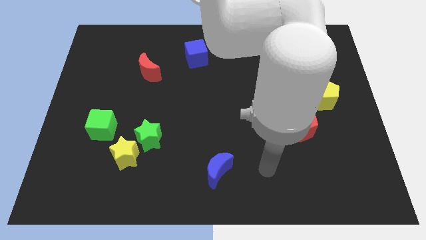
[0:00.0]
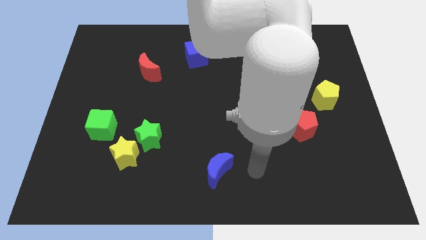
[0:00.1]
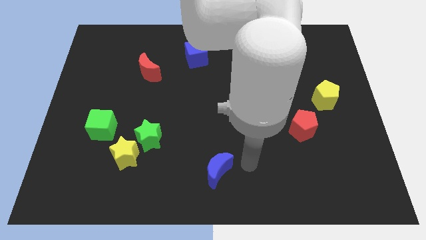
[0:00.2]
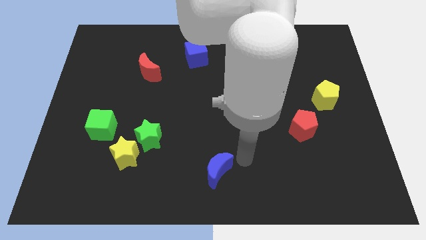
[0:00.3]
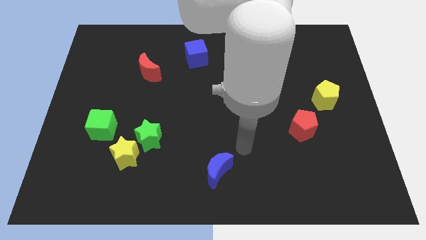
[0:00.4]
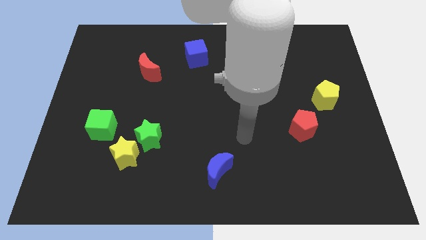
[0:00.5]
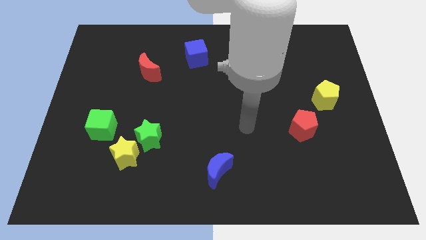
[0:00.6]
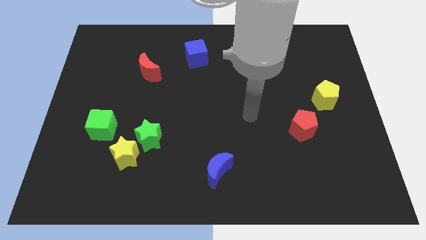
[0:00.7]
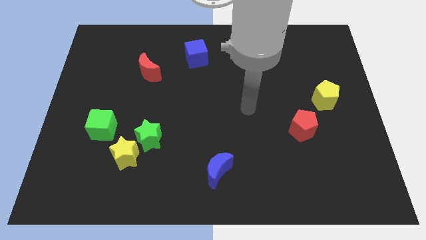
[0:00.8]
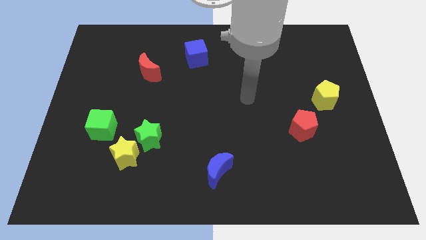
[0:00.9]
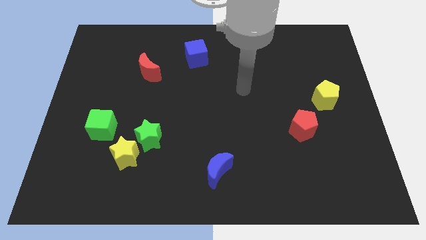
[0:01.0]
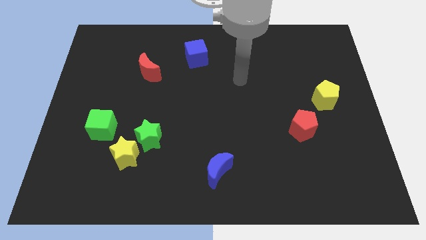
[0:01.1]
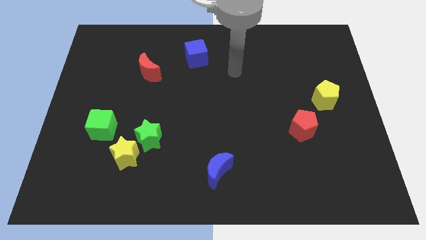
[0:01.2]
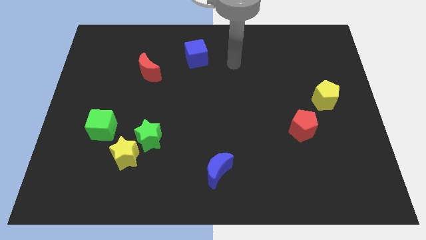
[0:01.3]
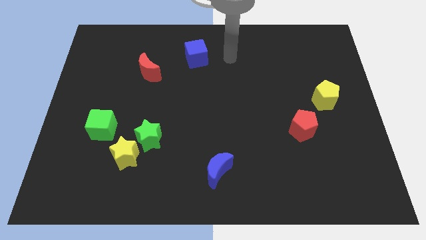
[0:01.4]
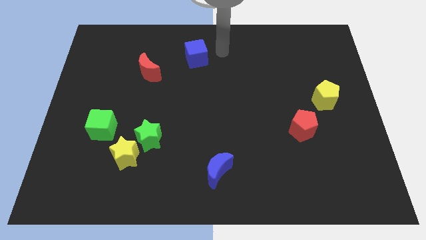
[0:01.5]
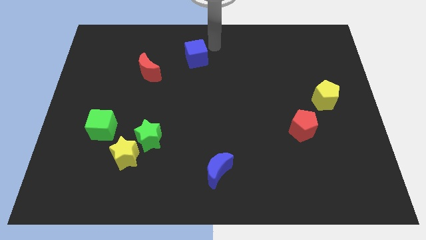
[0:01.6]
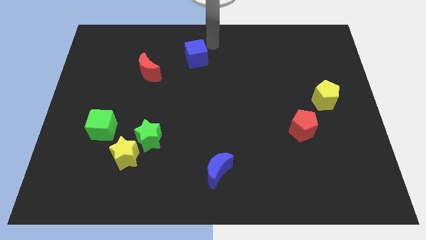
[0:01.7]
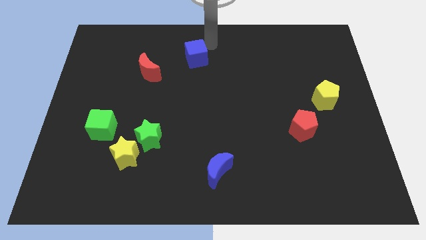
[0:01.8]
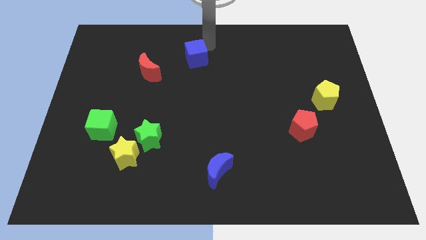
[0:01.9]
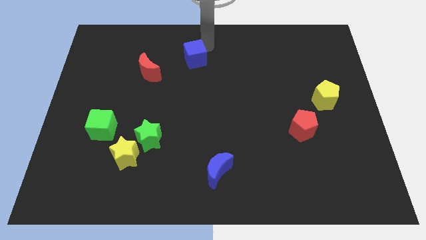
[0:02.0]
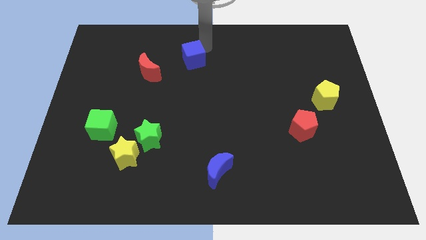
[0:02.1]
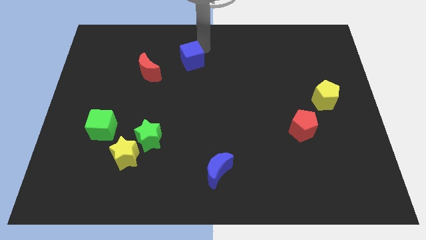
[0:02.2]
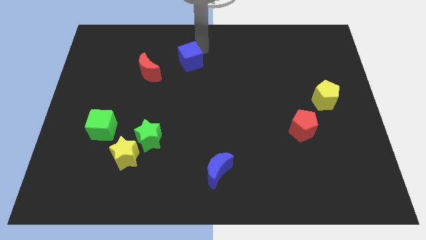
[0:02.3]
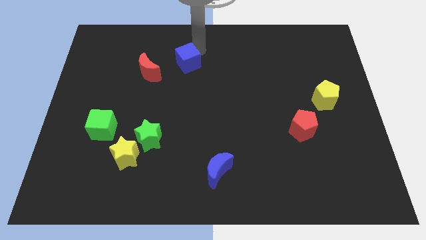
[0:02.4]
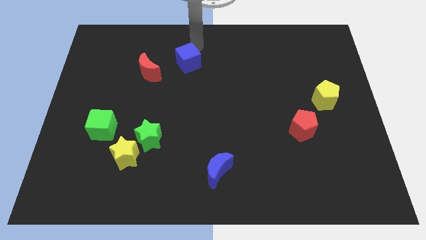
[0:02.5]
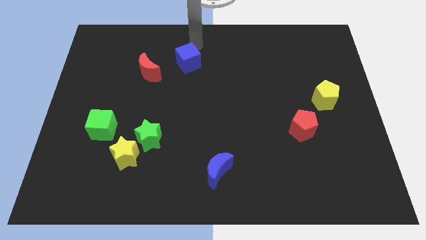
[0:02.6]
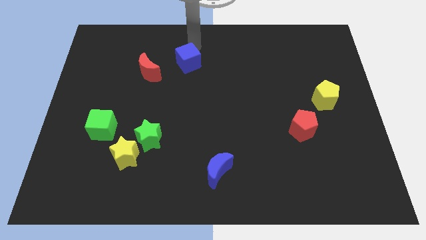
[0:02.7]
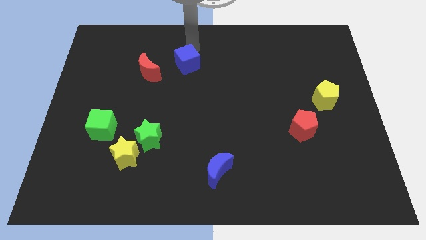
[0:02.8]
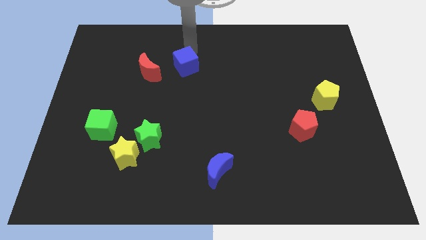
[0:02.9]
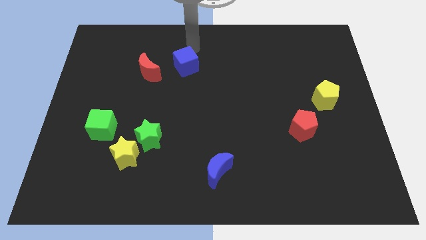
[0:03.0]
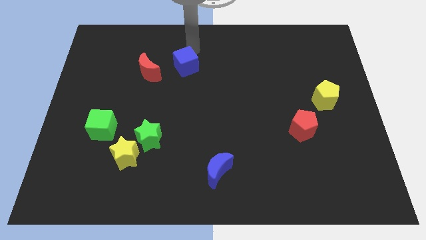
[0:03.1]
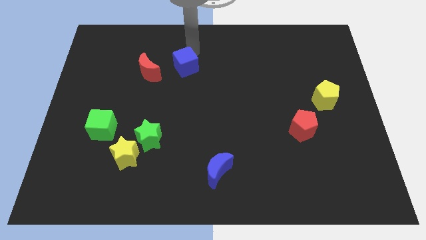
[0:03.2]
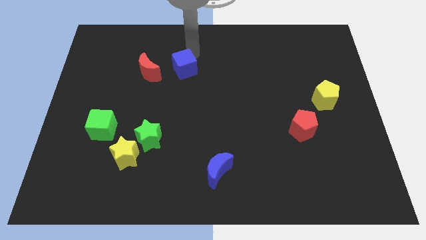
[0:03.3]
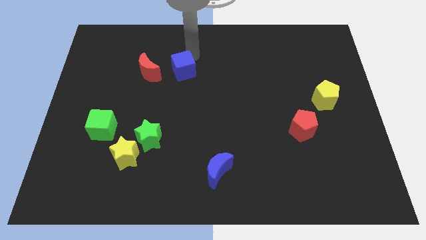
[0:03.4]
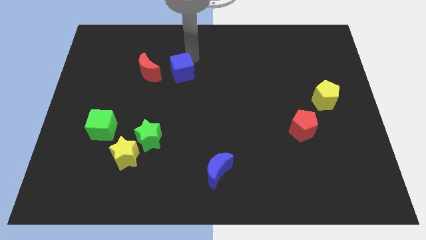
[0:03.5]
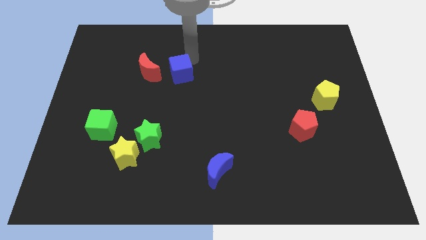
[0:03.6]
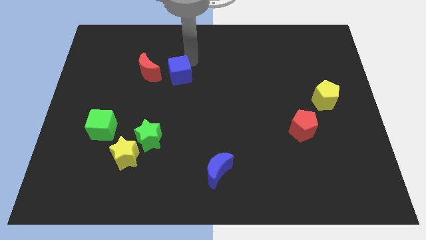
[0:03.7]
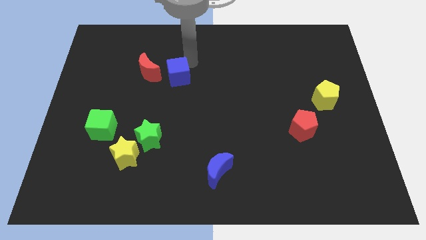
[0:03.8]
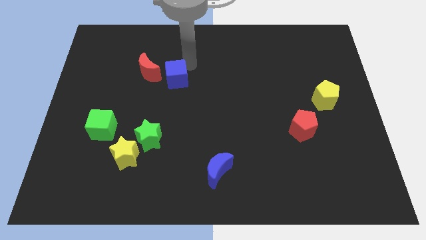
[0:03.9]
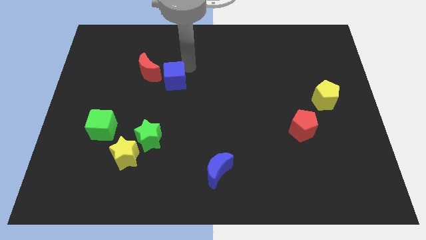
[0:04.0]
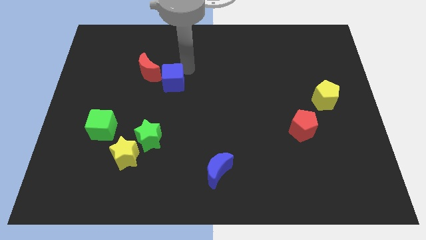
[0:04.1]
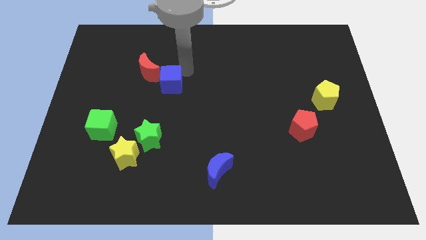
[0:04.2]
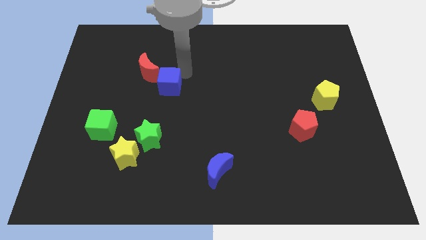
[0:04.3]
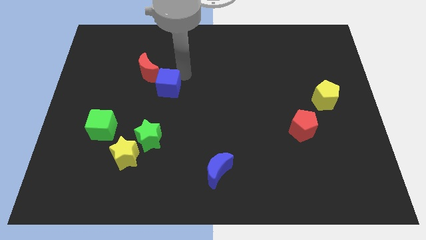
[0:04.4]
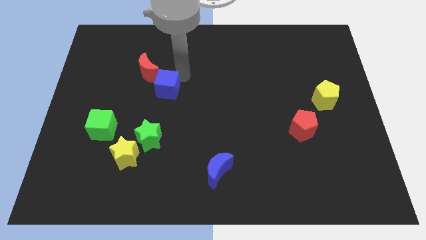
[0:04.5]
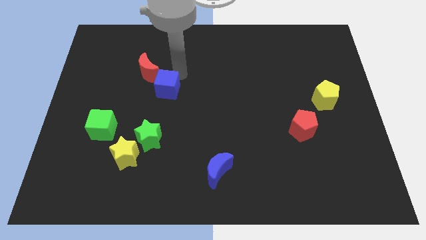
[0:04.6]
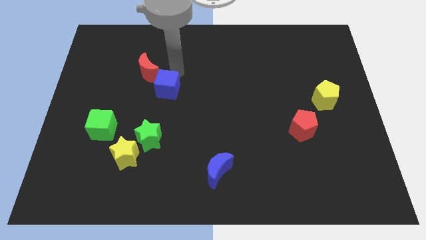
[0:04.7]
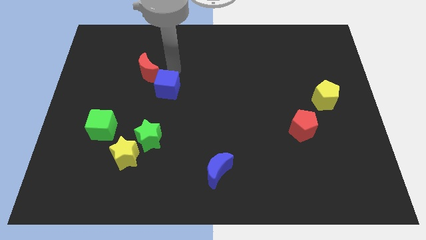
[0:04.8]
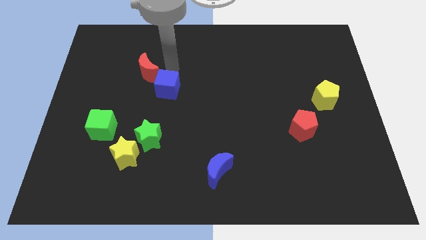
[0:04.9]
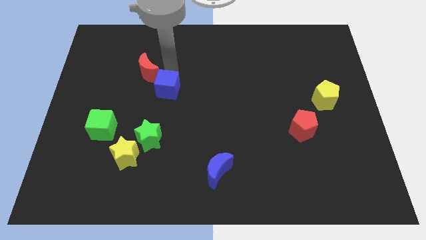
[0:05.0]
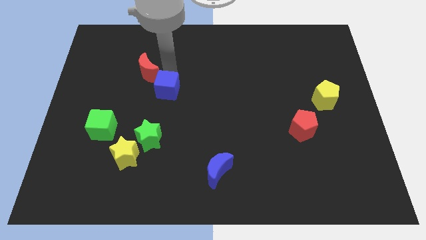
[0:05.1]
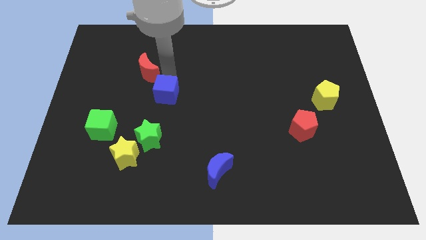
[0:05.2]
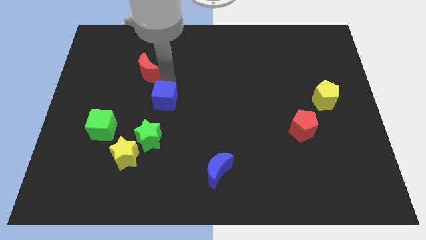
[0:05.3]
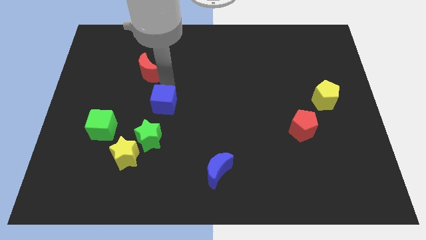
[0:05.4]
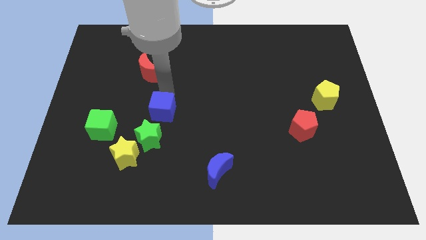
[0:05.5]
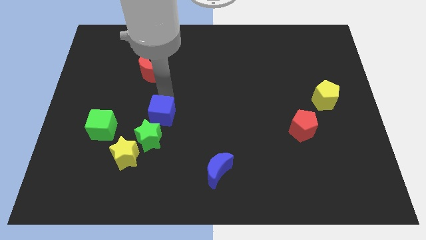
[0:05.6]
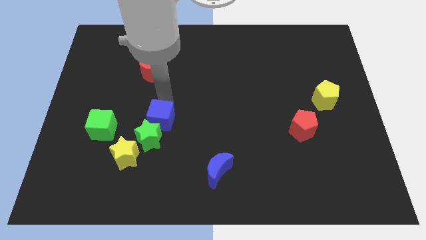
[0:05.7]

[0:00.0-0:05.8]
move the blue cube to the green star

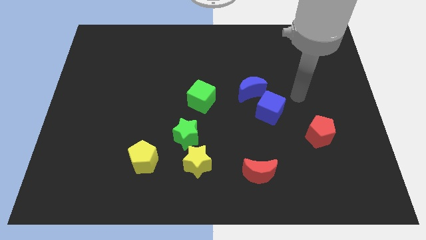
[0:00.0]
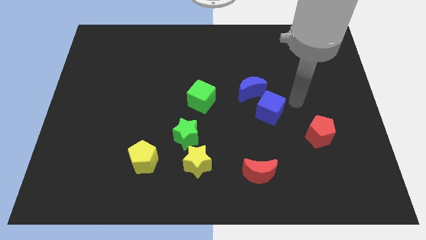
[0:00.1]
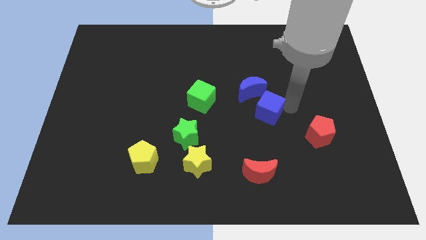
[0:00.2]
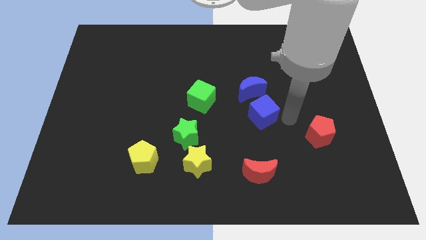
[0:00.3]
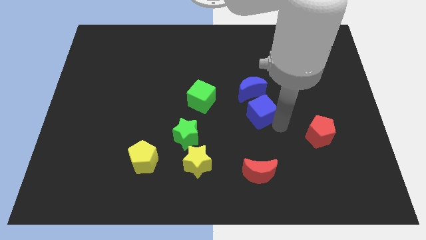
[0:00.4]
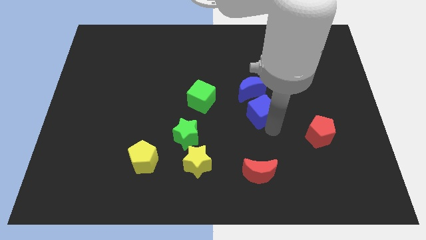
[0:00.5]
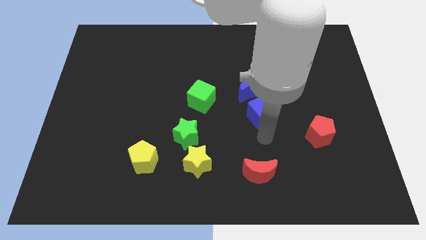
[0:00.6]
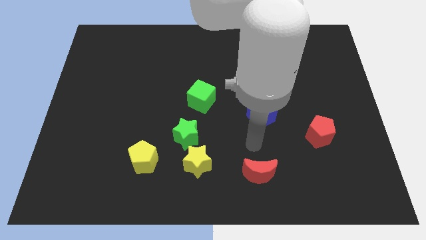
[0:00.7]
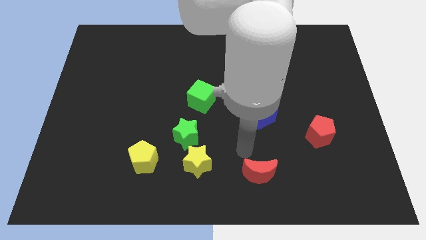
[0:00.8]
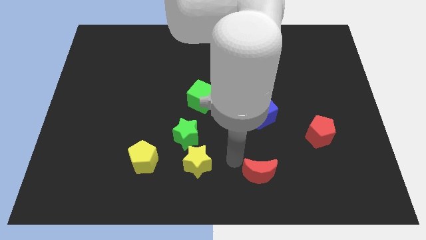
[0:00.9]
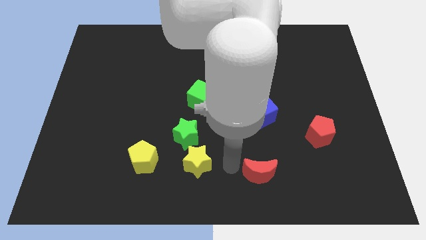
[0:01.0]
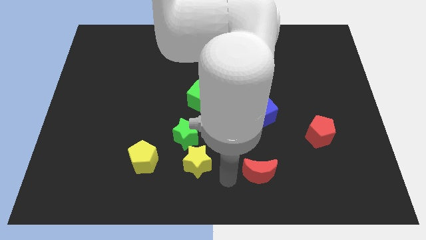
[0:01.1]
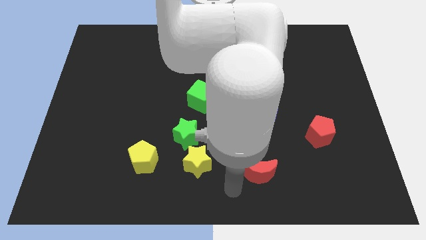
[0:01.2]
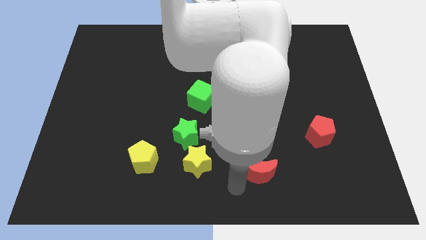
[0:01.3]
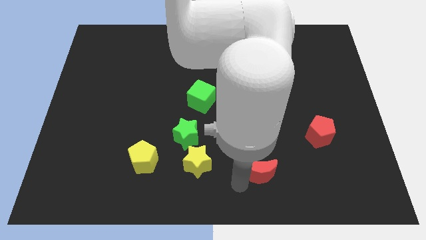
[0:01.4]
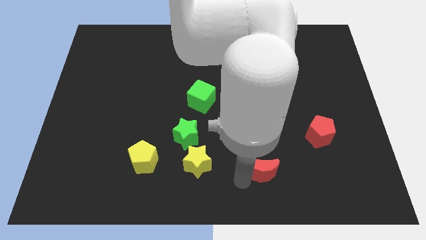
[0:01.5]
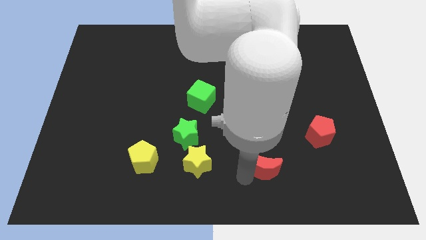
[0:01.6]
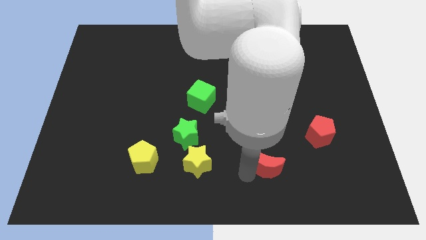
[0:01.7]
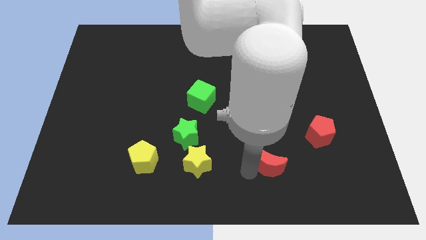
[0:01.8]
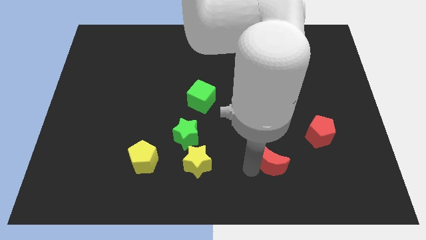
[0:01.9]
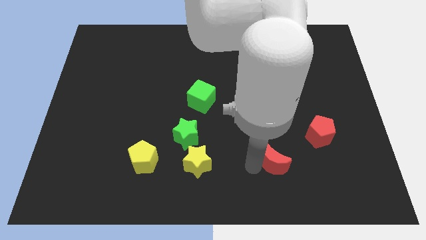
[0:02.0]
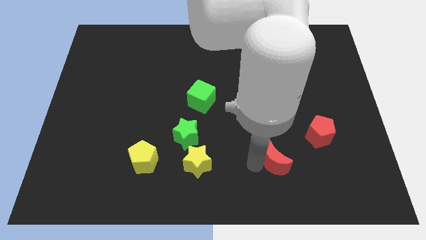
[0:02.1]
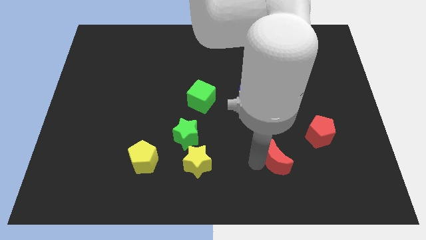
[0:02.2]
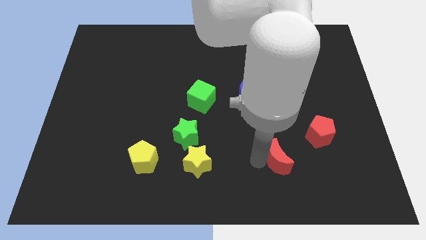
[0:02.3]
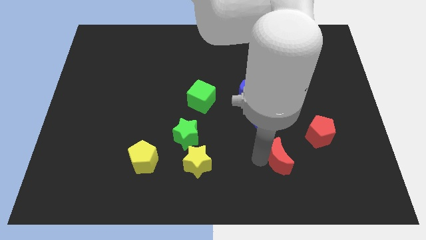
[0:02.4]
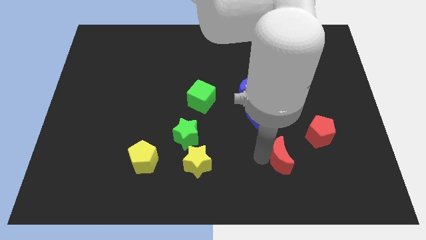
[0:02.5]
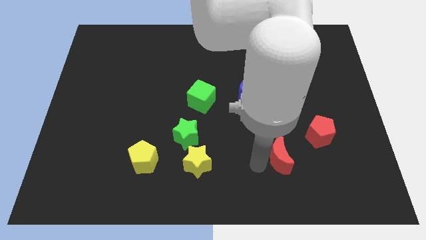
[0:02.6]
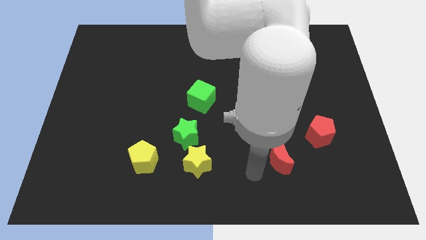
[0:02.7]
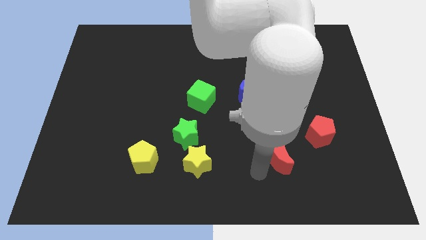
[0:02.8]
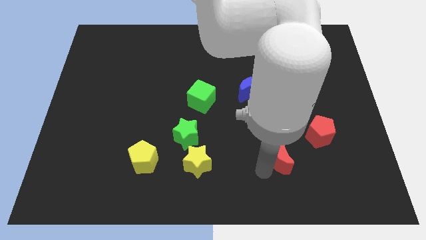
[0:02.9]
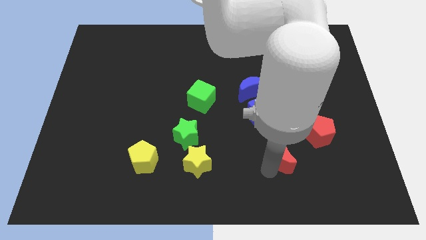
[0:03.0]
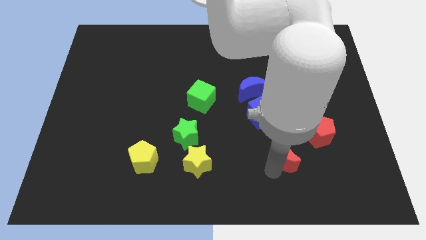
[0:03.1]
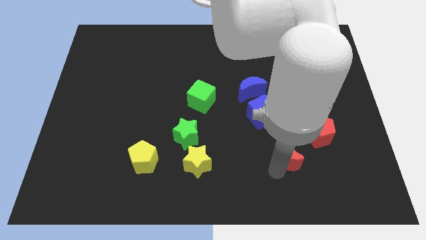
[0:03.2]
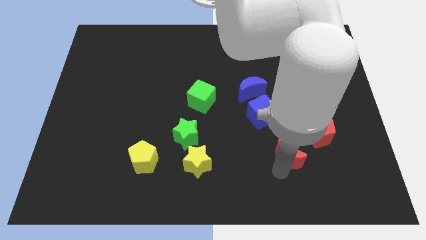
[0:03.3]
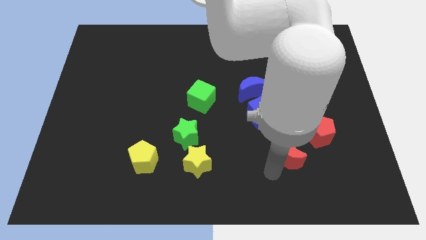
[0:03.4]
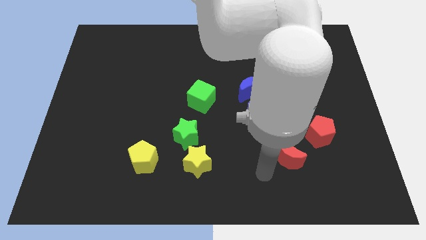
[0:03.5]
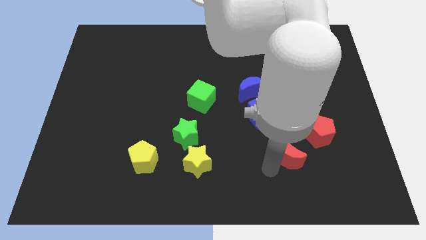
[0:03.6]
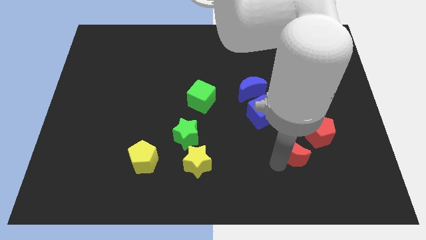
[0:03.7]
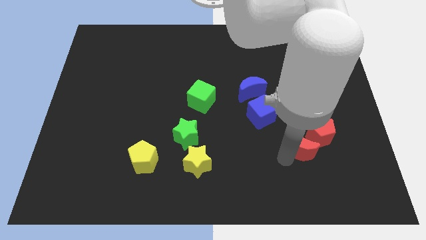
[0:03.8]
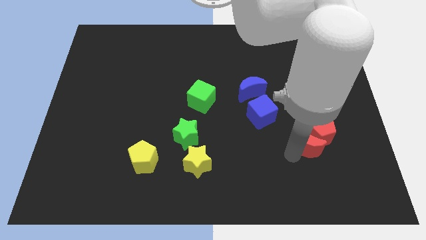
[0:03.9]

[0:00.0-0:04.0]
slide the red moon towards the red pentagon
